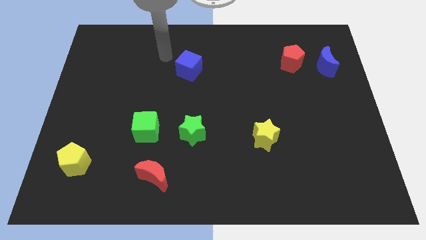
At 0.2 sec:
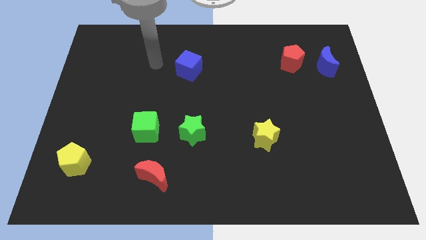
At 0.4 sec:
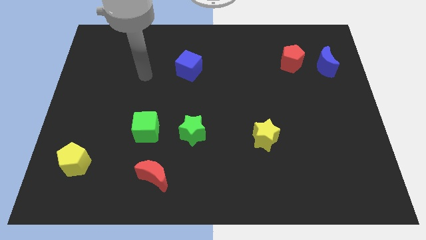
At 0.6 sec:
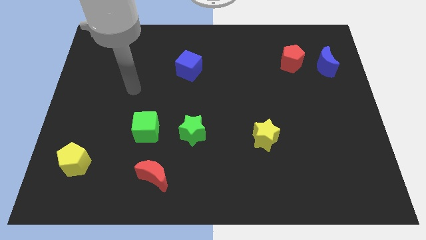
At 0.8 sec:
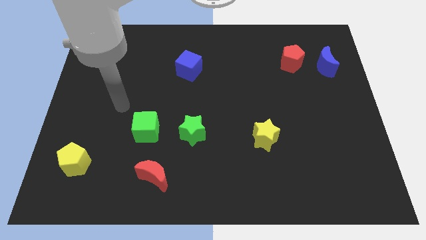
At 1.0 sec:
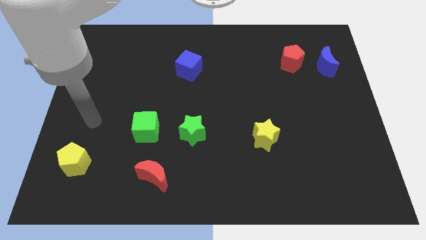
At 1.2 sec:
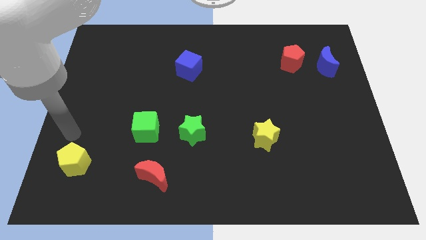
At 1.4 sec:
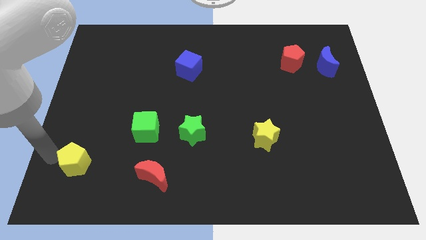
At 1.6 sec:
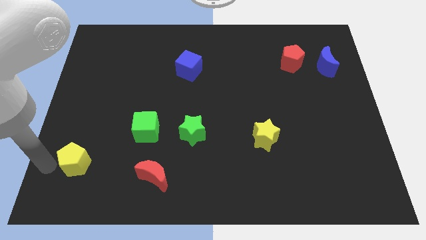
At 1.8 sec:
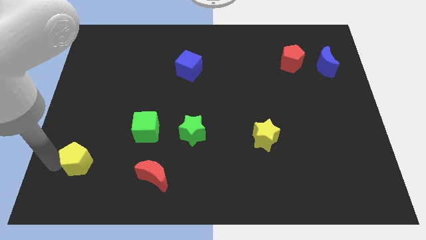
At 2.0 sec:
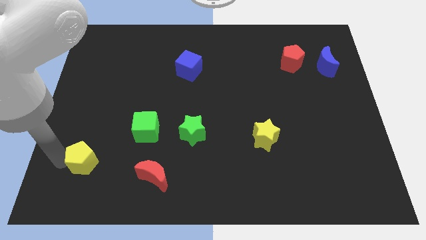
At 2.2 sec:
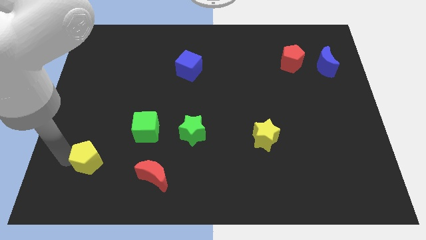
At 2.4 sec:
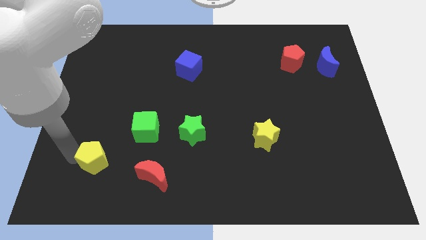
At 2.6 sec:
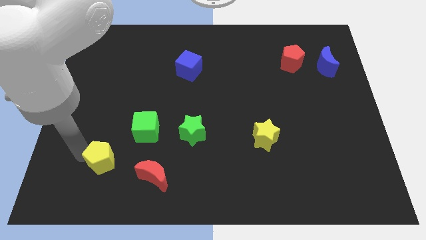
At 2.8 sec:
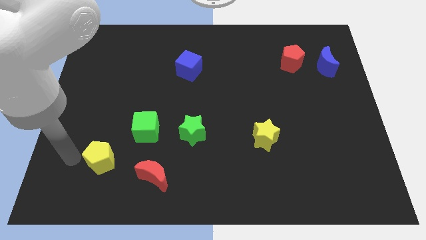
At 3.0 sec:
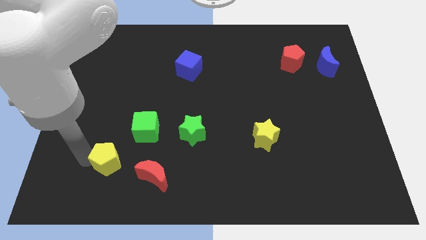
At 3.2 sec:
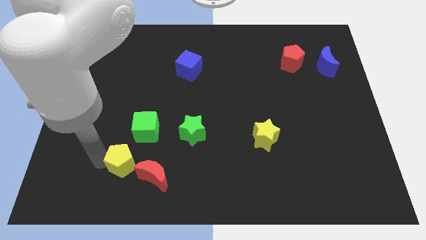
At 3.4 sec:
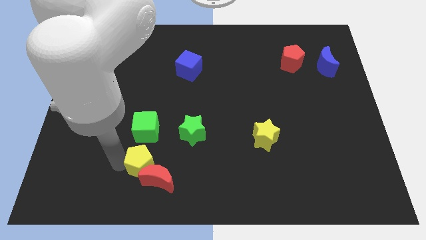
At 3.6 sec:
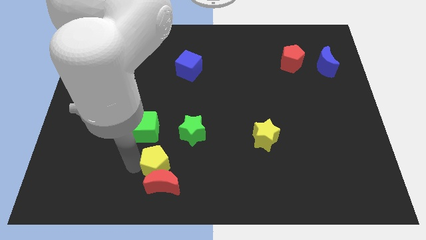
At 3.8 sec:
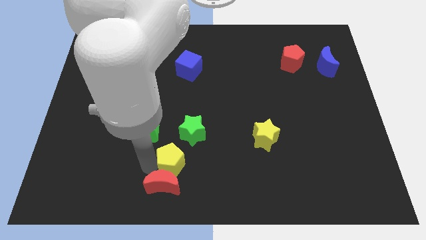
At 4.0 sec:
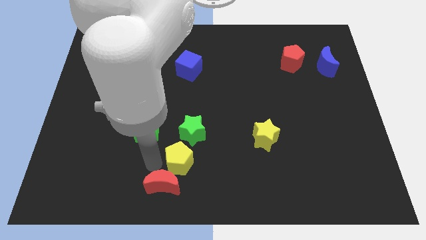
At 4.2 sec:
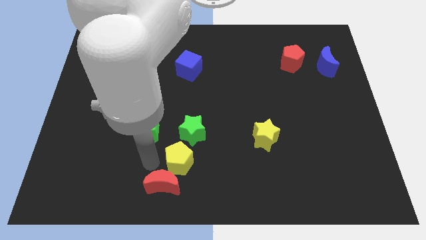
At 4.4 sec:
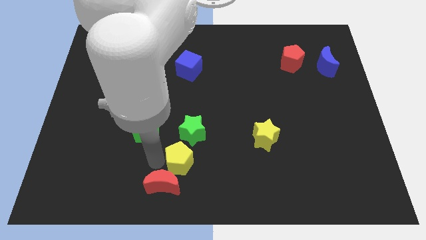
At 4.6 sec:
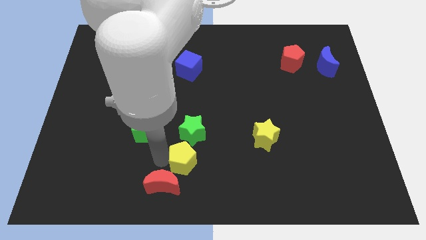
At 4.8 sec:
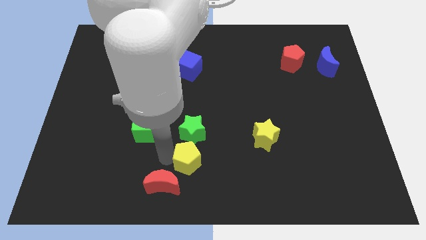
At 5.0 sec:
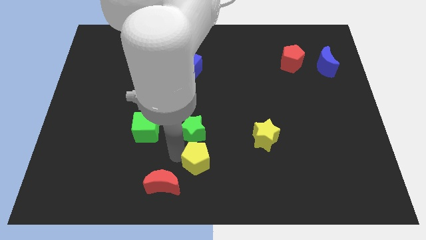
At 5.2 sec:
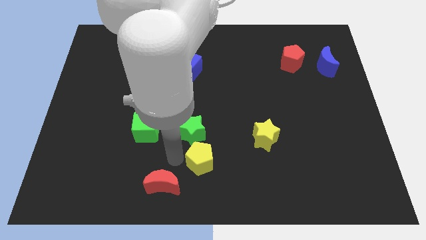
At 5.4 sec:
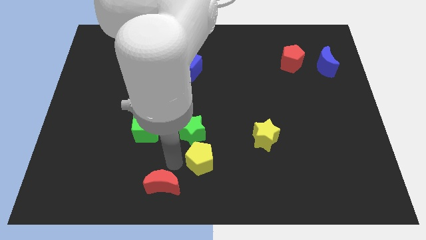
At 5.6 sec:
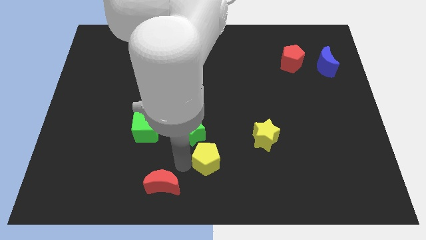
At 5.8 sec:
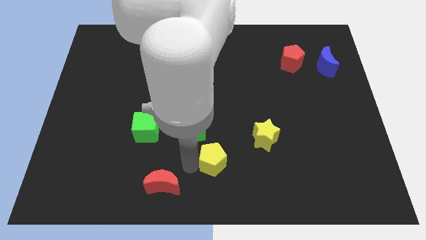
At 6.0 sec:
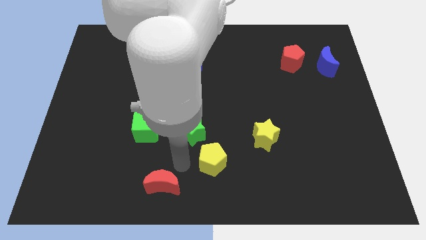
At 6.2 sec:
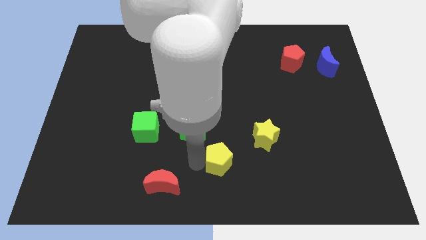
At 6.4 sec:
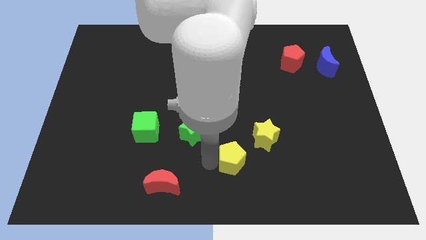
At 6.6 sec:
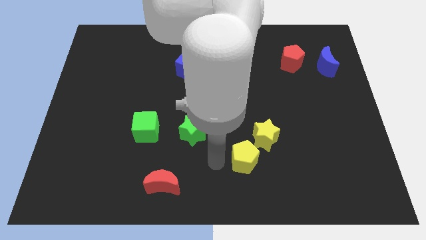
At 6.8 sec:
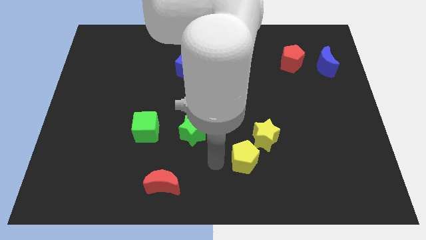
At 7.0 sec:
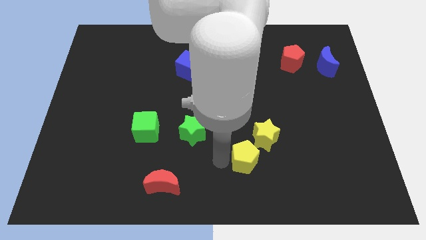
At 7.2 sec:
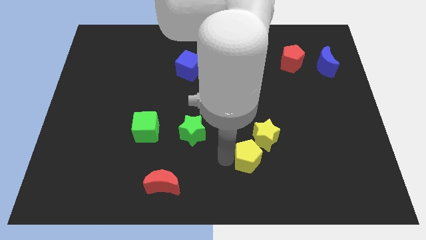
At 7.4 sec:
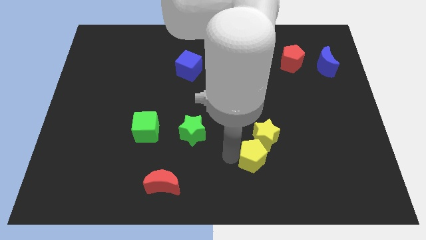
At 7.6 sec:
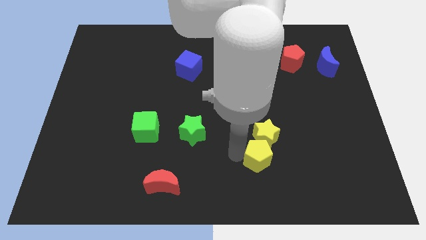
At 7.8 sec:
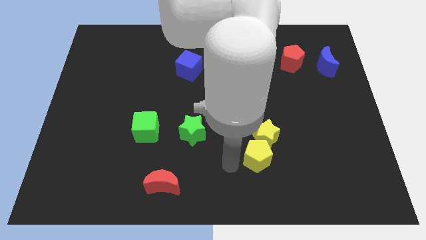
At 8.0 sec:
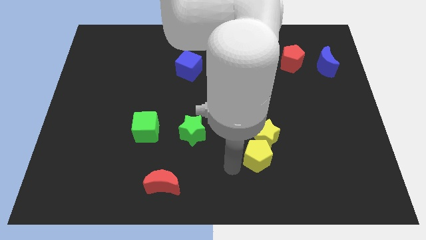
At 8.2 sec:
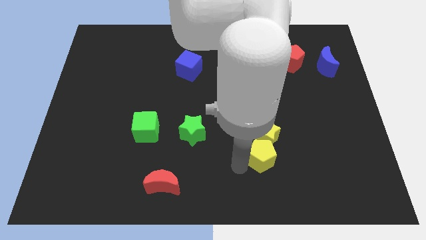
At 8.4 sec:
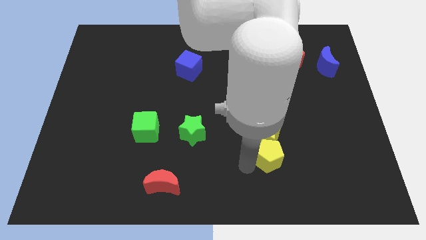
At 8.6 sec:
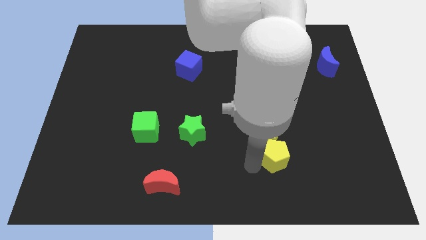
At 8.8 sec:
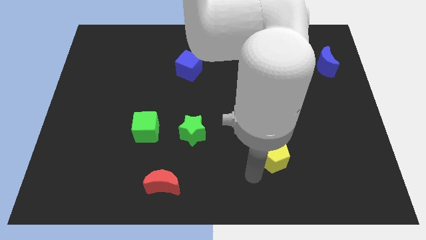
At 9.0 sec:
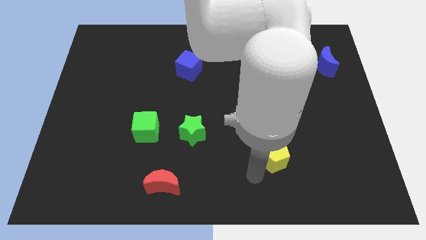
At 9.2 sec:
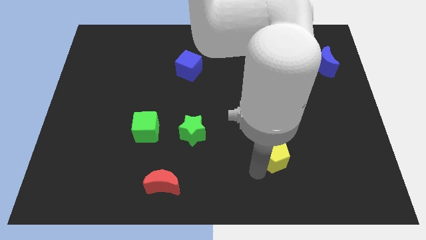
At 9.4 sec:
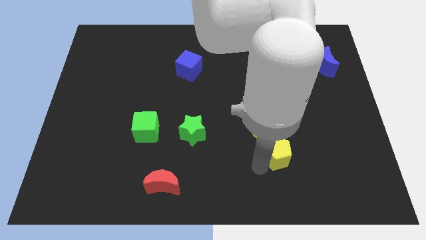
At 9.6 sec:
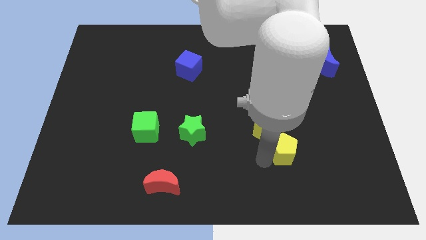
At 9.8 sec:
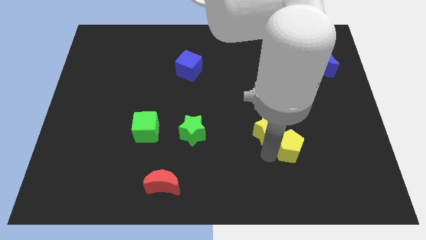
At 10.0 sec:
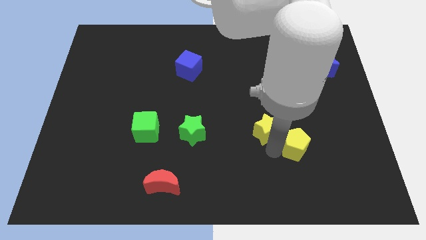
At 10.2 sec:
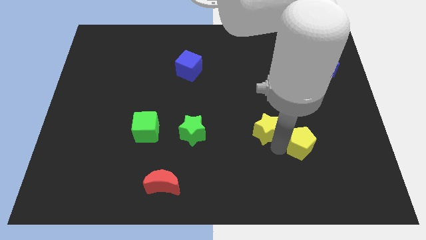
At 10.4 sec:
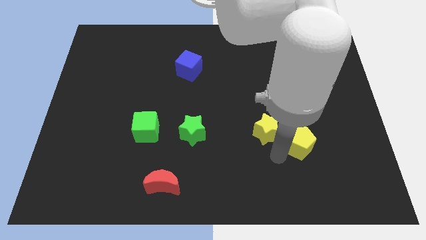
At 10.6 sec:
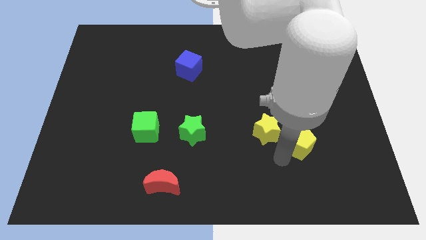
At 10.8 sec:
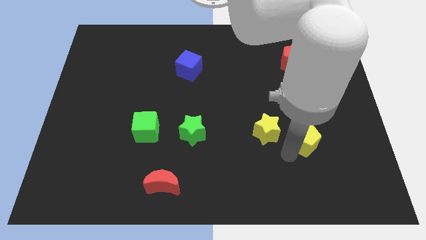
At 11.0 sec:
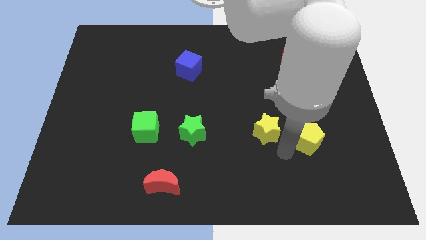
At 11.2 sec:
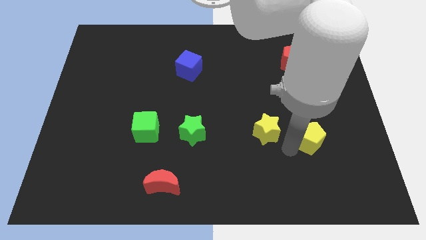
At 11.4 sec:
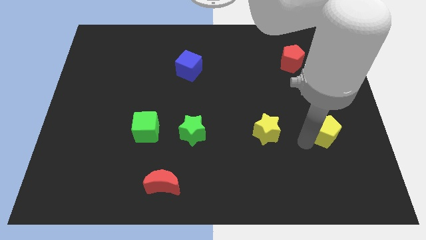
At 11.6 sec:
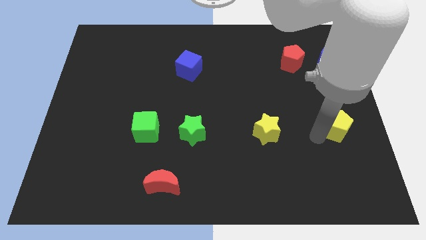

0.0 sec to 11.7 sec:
push the yellow pentagon to the right side of the board

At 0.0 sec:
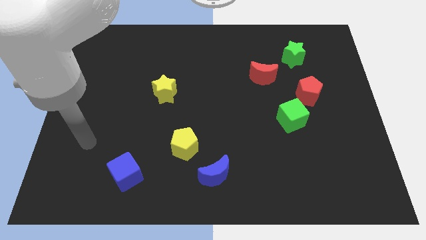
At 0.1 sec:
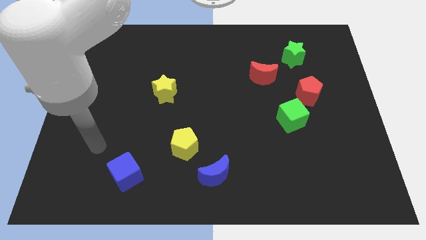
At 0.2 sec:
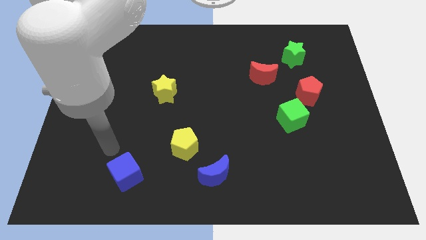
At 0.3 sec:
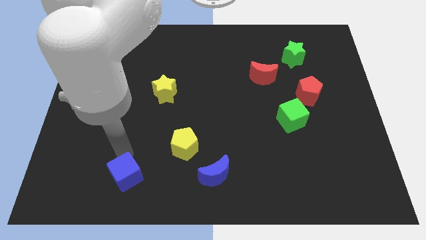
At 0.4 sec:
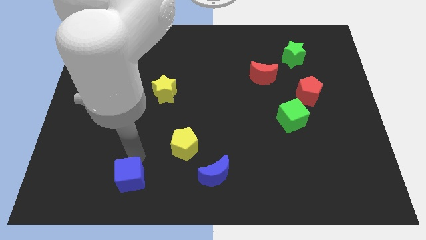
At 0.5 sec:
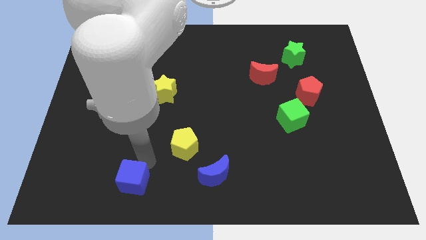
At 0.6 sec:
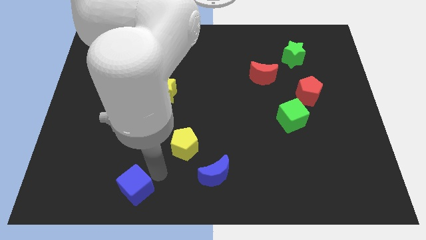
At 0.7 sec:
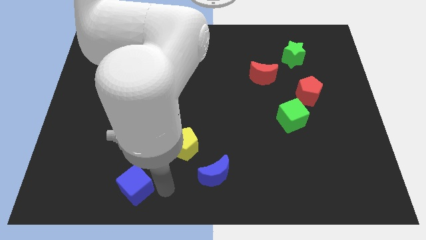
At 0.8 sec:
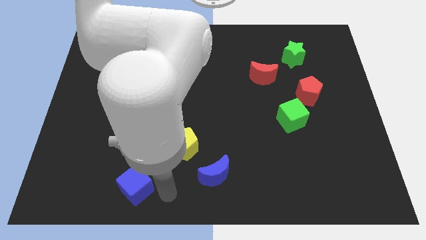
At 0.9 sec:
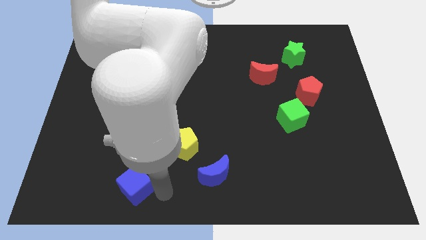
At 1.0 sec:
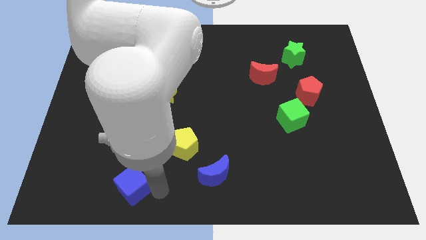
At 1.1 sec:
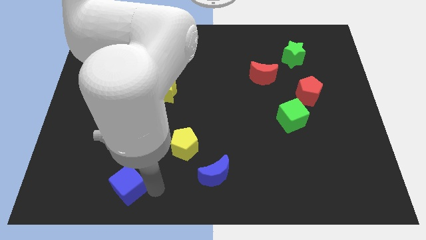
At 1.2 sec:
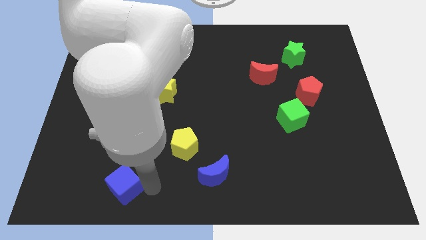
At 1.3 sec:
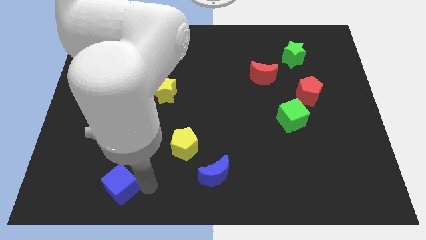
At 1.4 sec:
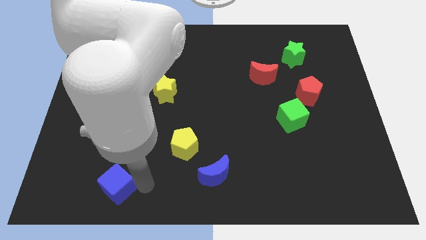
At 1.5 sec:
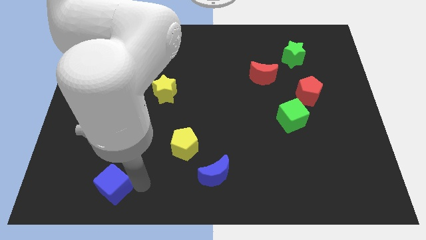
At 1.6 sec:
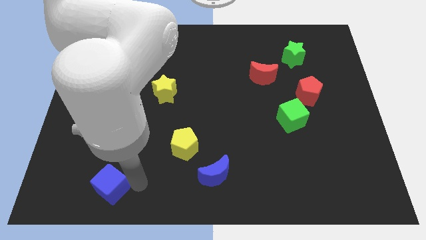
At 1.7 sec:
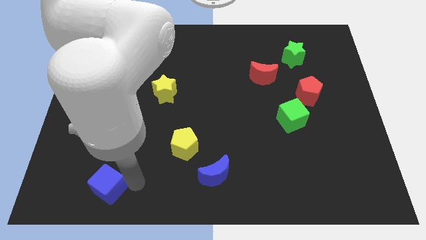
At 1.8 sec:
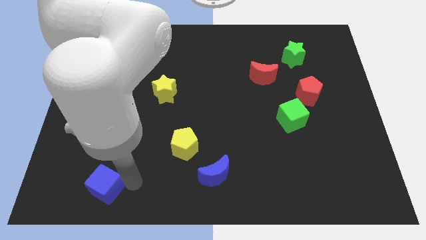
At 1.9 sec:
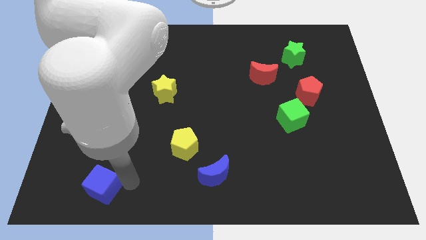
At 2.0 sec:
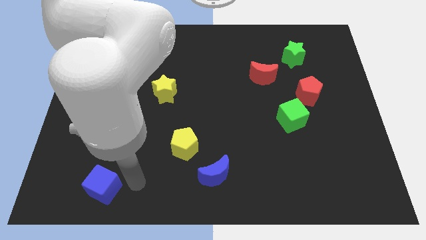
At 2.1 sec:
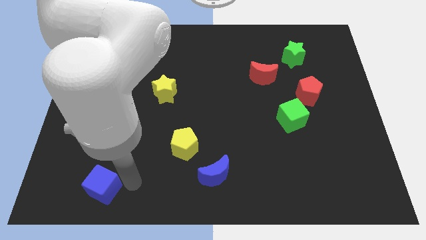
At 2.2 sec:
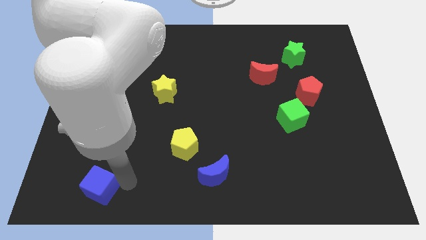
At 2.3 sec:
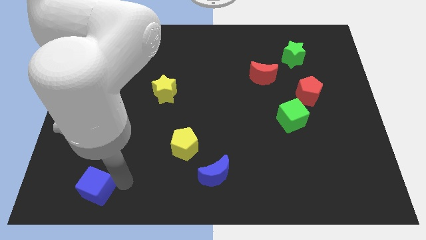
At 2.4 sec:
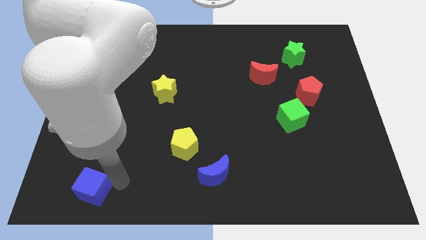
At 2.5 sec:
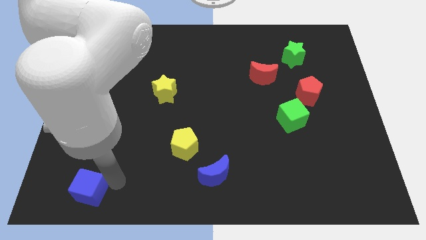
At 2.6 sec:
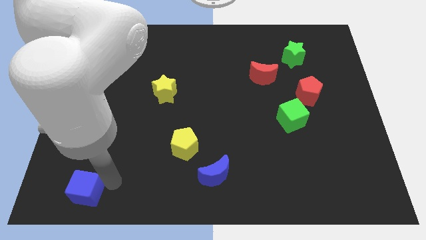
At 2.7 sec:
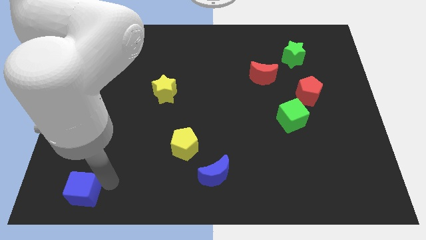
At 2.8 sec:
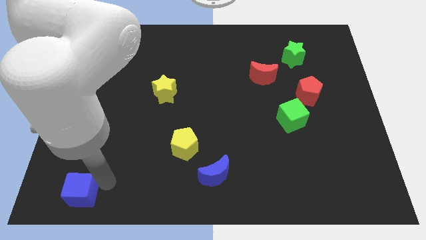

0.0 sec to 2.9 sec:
slide the blue cube to the bottom left of the board
